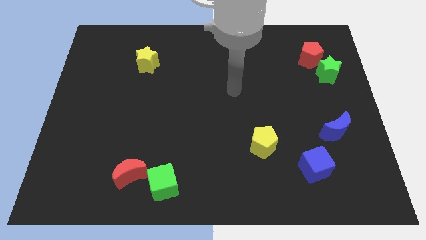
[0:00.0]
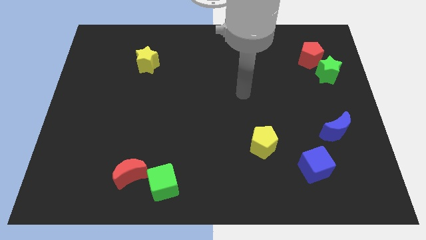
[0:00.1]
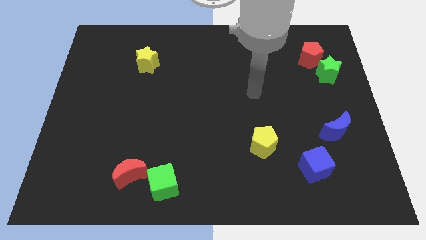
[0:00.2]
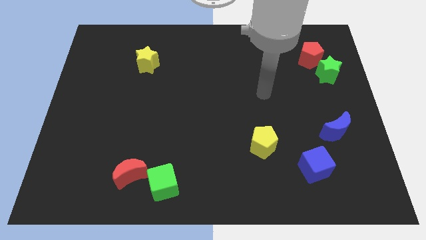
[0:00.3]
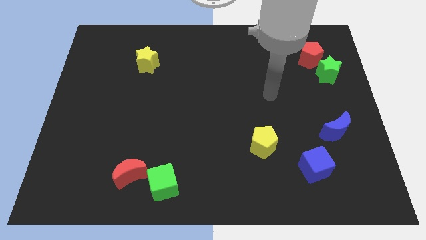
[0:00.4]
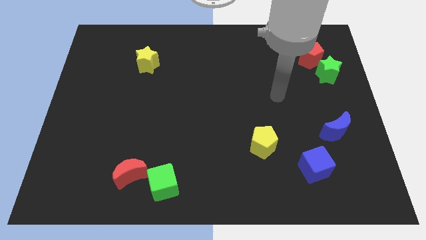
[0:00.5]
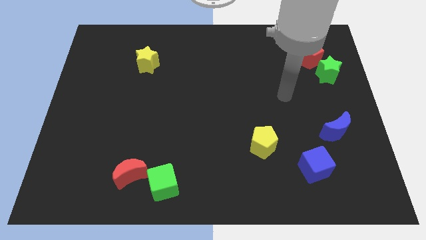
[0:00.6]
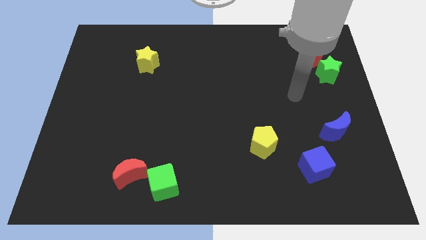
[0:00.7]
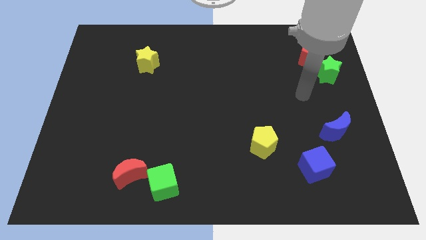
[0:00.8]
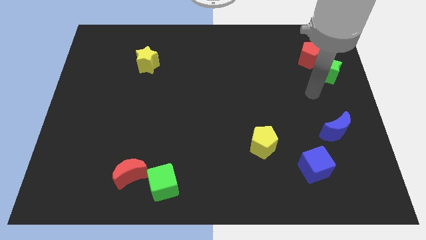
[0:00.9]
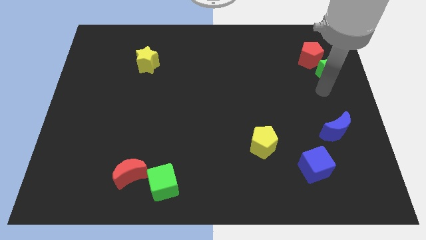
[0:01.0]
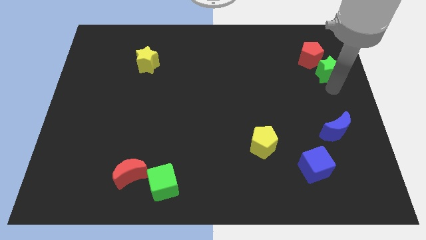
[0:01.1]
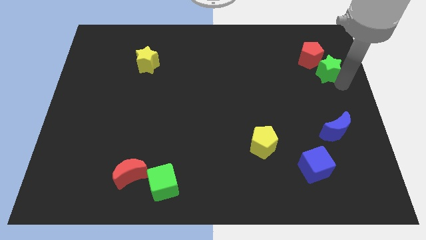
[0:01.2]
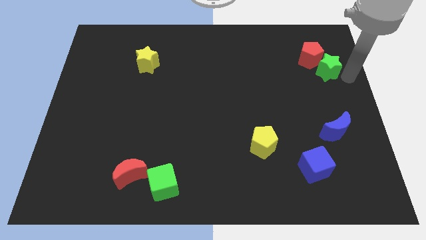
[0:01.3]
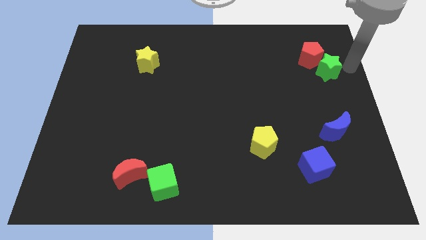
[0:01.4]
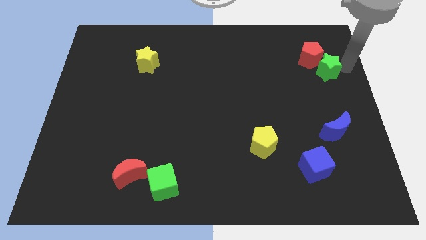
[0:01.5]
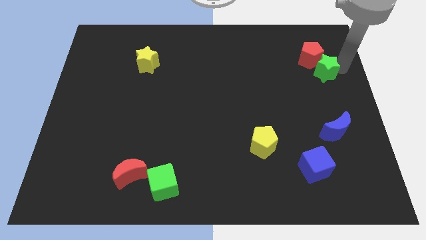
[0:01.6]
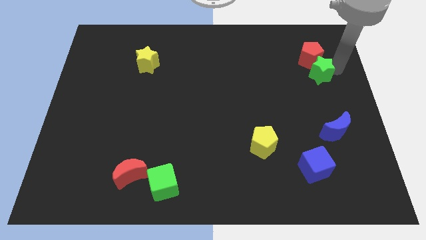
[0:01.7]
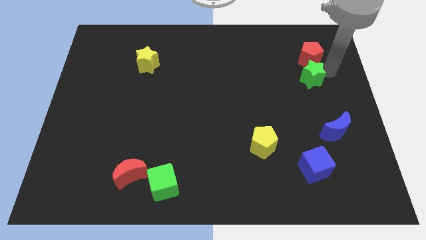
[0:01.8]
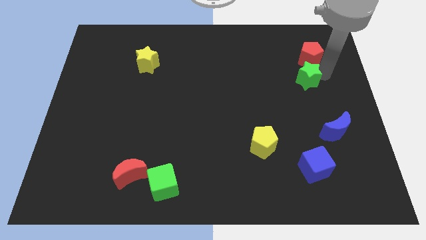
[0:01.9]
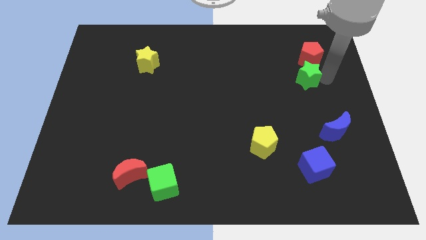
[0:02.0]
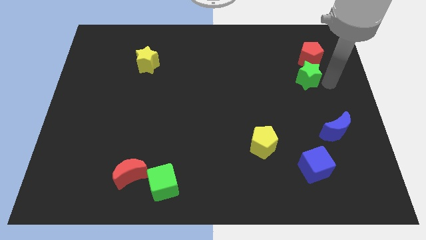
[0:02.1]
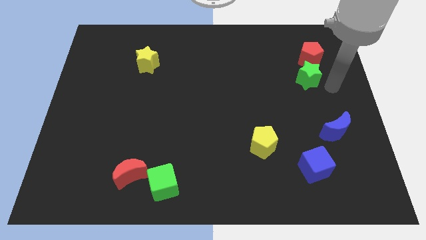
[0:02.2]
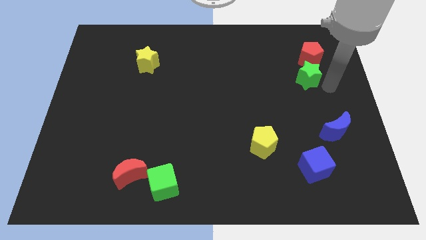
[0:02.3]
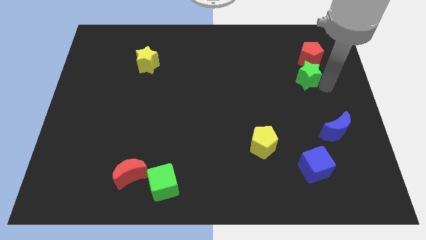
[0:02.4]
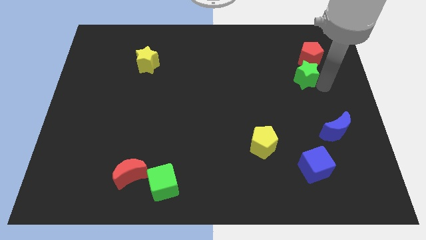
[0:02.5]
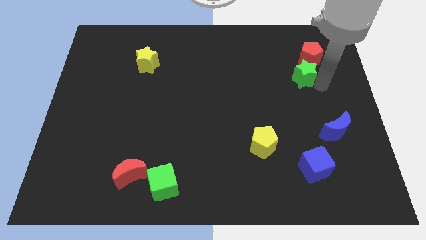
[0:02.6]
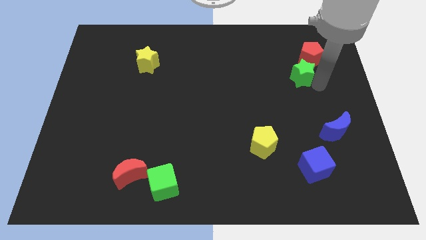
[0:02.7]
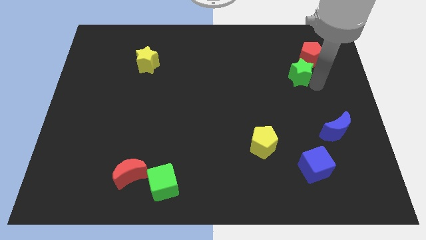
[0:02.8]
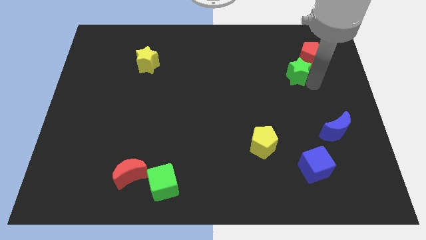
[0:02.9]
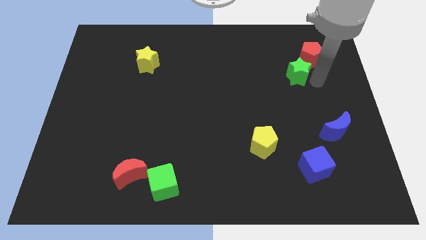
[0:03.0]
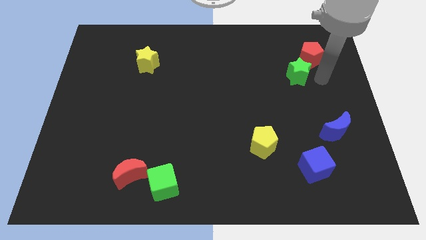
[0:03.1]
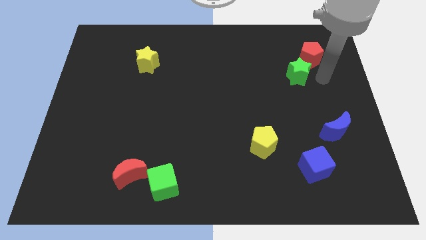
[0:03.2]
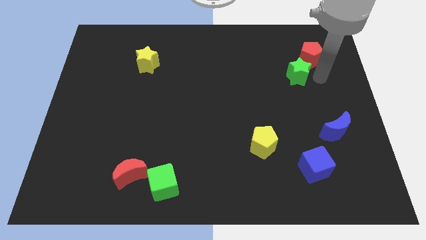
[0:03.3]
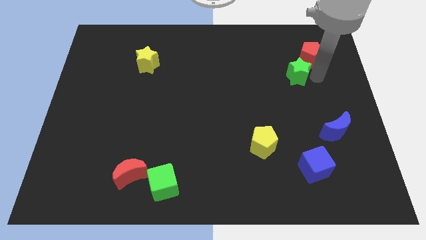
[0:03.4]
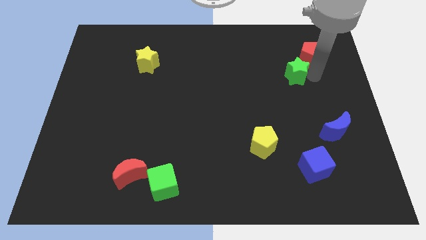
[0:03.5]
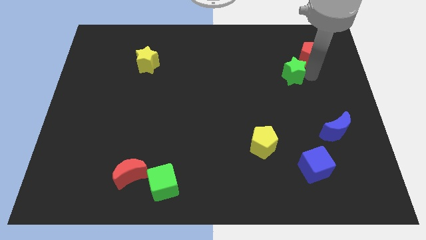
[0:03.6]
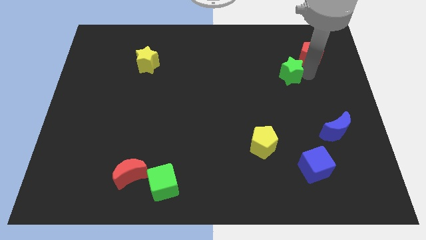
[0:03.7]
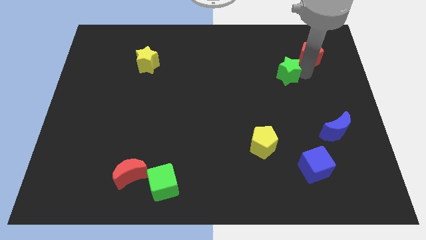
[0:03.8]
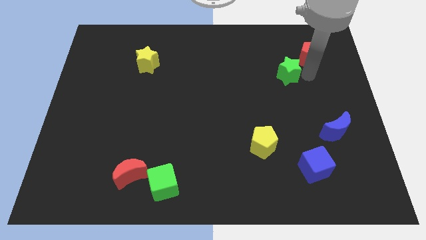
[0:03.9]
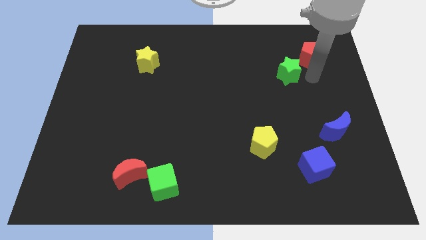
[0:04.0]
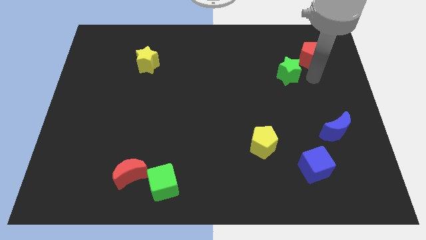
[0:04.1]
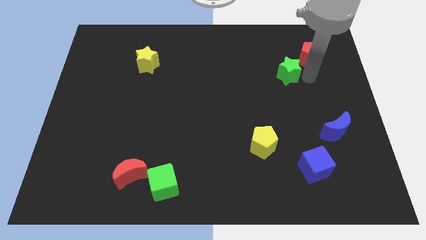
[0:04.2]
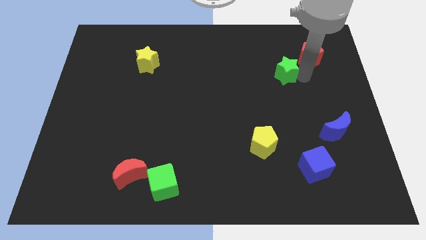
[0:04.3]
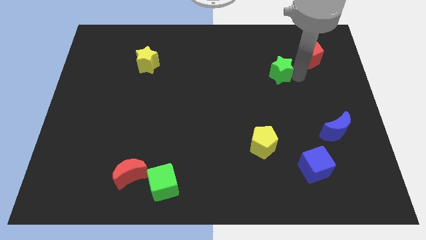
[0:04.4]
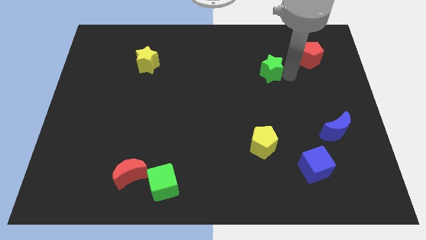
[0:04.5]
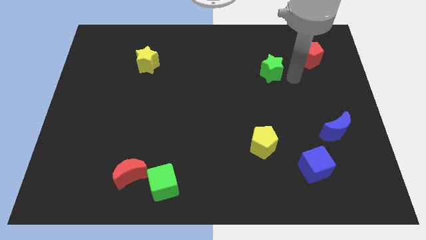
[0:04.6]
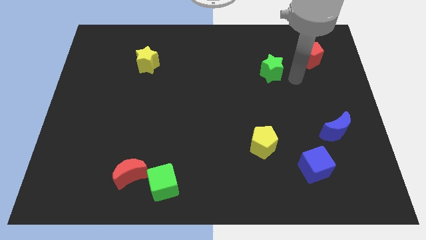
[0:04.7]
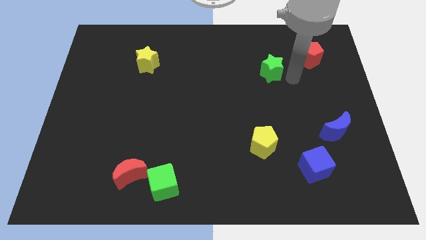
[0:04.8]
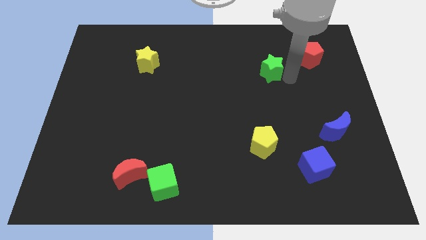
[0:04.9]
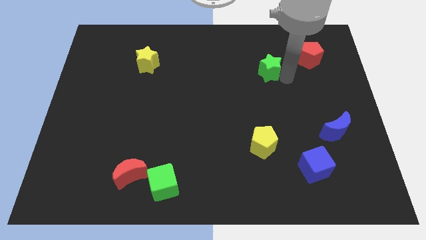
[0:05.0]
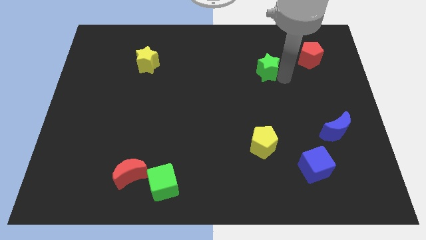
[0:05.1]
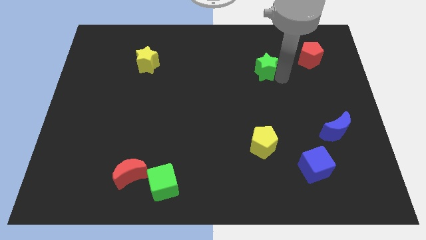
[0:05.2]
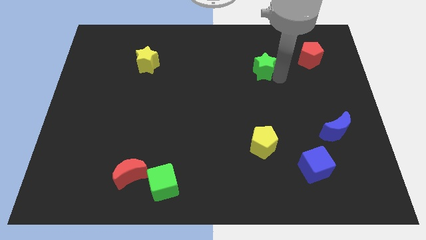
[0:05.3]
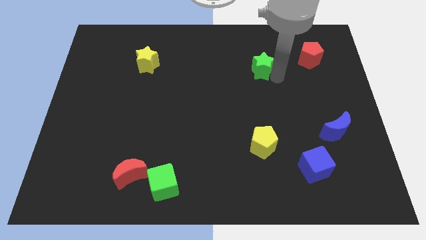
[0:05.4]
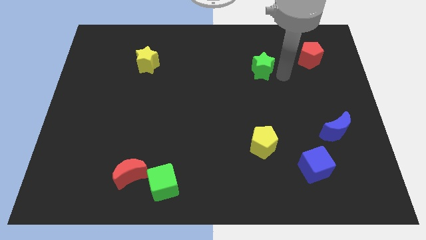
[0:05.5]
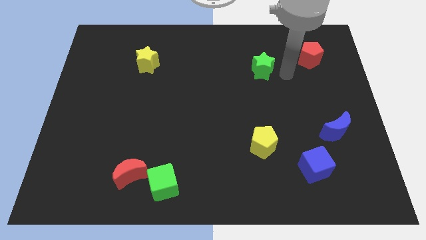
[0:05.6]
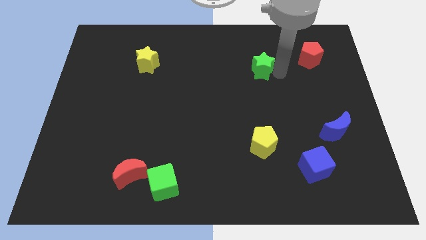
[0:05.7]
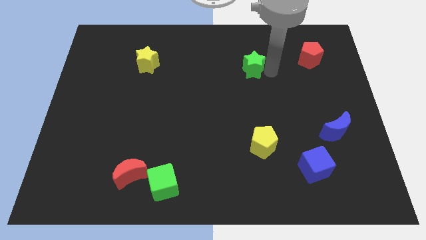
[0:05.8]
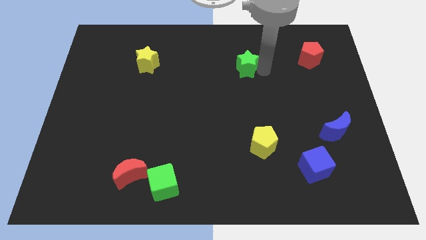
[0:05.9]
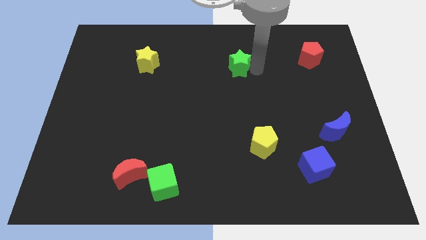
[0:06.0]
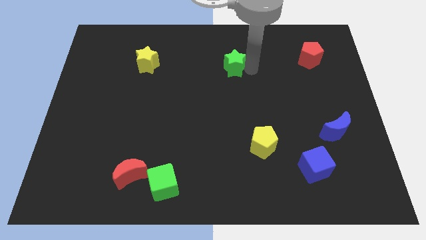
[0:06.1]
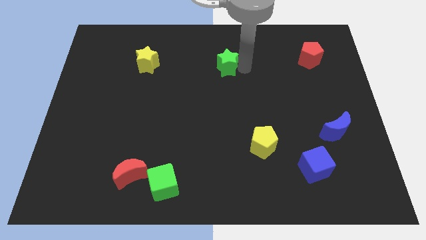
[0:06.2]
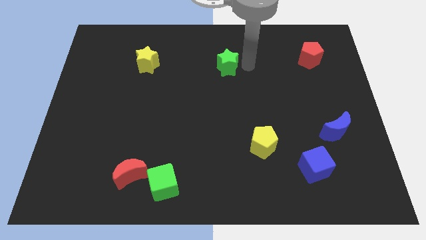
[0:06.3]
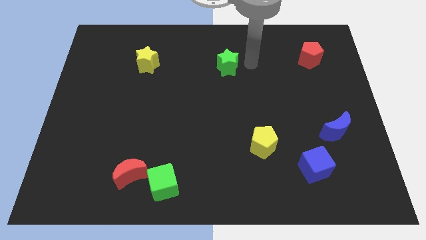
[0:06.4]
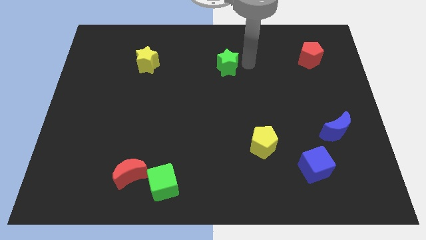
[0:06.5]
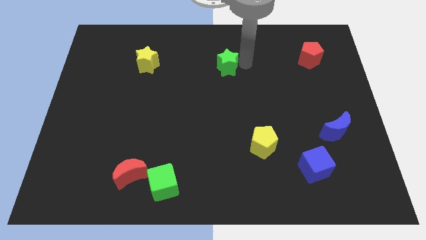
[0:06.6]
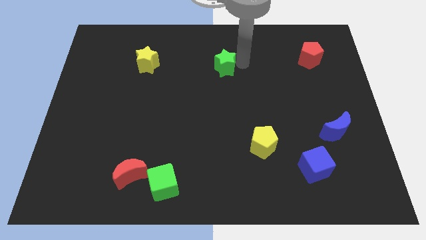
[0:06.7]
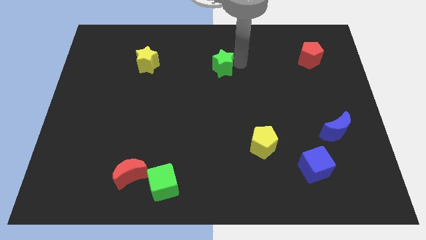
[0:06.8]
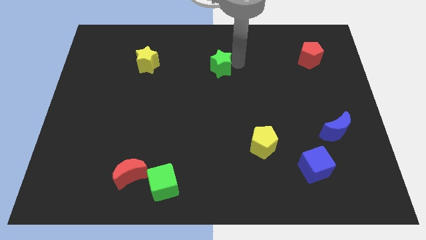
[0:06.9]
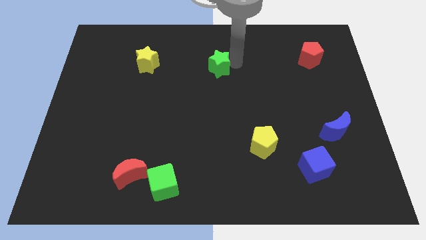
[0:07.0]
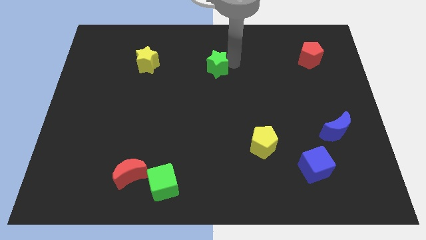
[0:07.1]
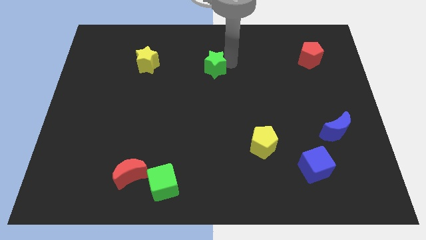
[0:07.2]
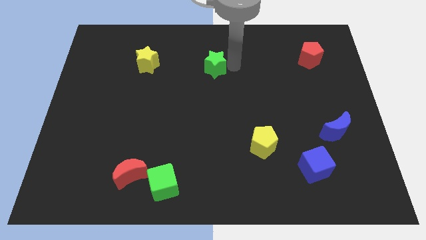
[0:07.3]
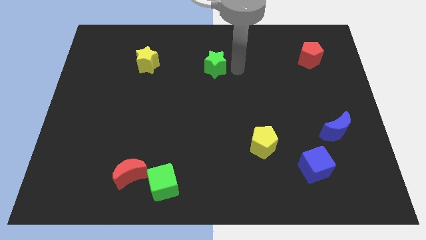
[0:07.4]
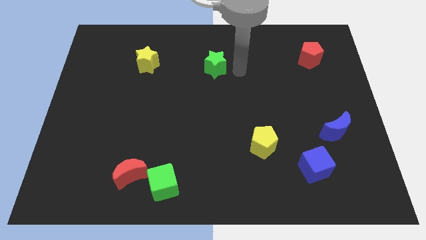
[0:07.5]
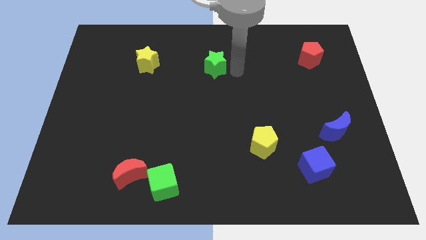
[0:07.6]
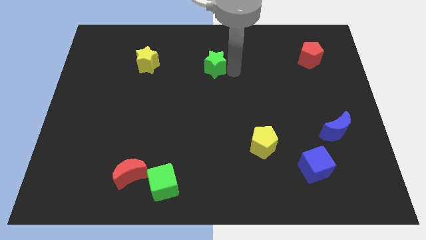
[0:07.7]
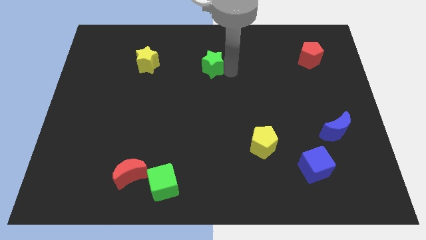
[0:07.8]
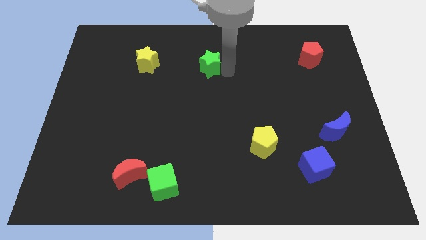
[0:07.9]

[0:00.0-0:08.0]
move the green star right of the yellow star
